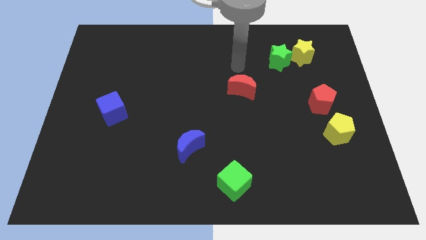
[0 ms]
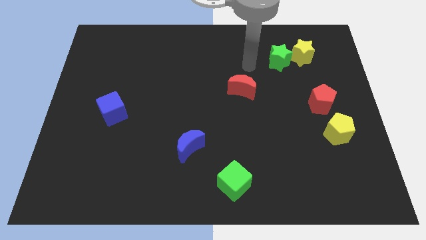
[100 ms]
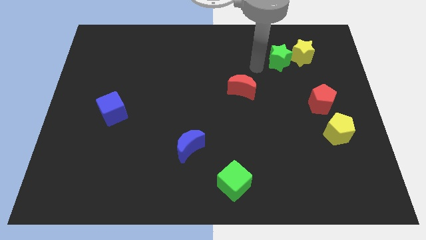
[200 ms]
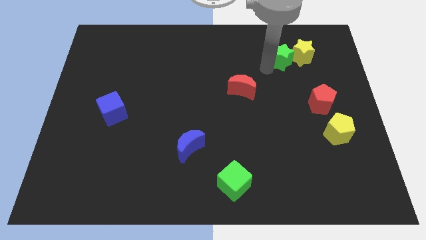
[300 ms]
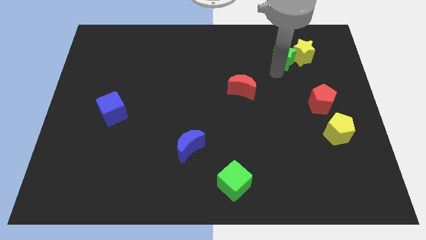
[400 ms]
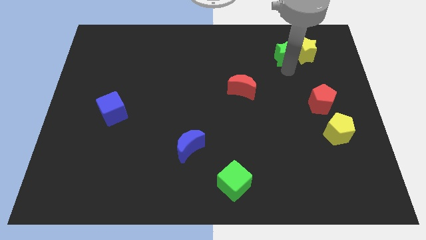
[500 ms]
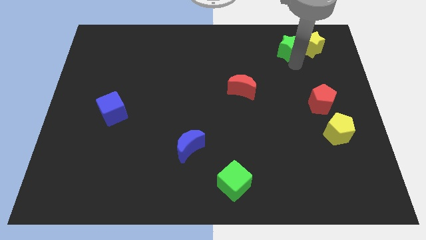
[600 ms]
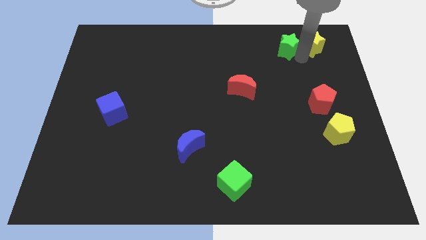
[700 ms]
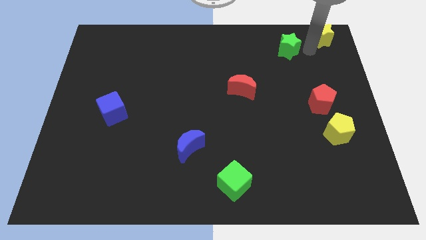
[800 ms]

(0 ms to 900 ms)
pull the green star apart from the yellow star

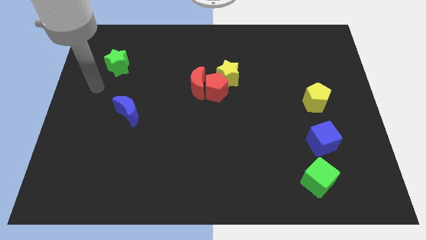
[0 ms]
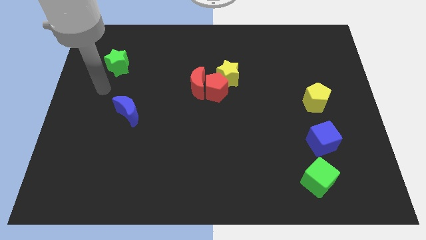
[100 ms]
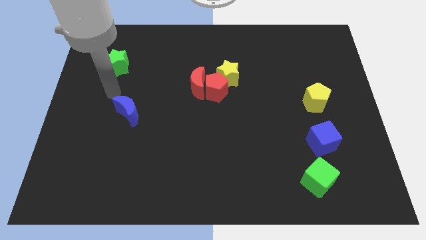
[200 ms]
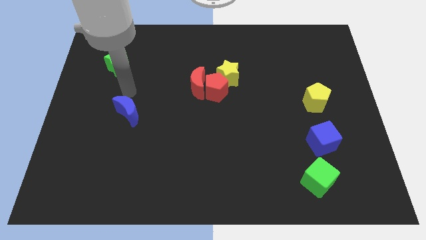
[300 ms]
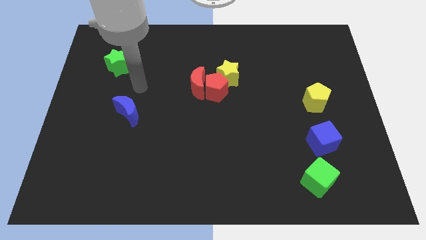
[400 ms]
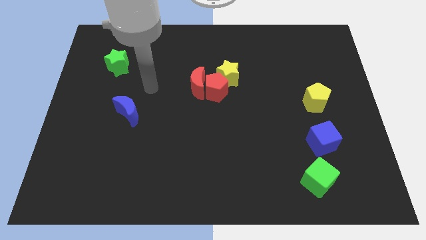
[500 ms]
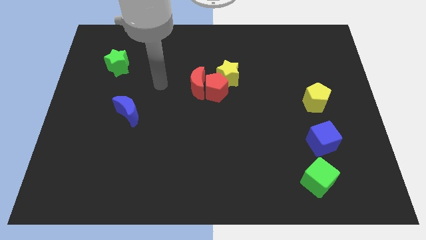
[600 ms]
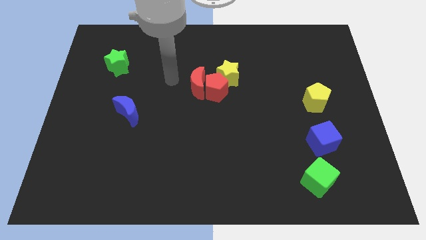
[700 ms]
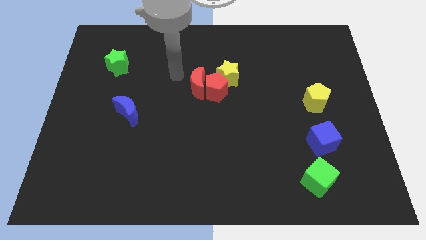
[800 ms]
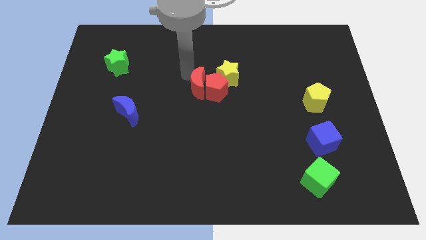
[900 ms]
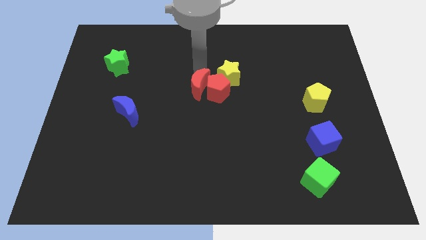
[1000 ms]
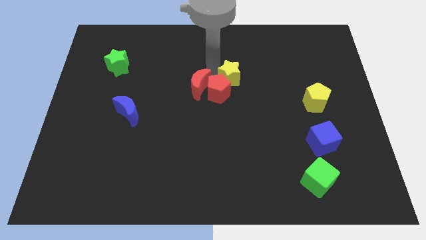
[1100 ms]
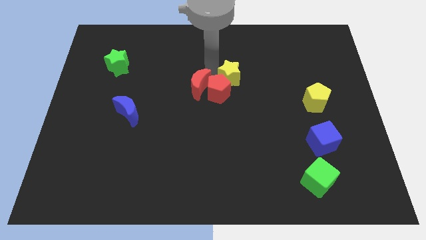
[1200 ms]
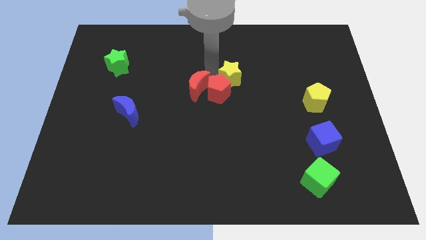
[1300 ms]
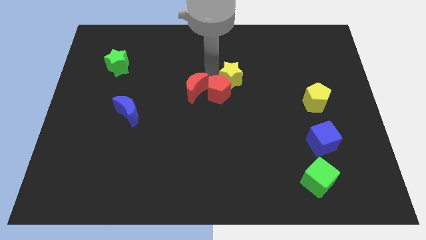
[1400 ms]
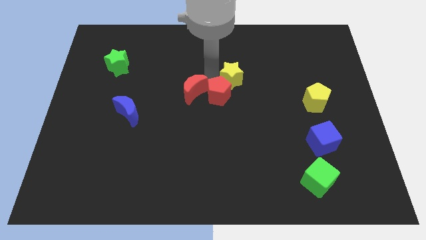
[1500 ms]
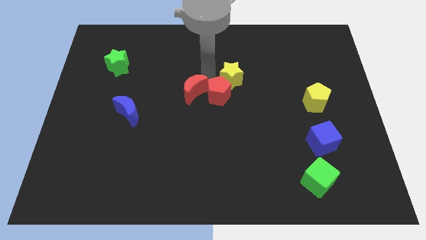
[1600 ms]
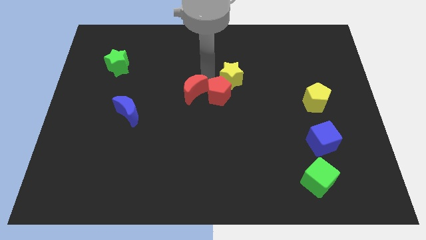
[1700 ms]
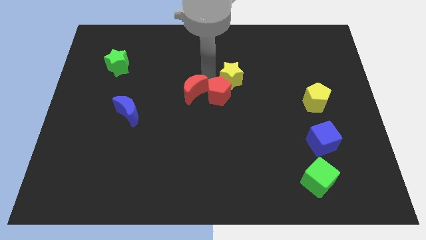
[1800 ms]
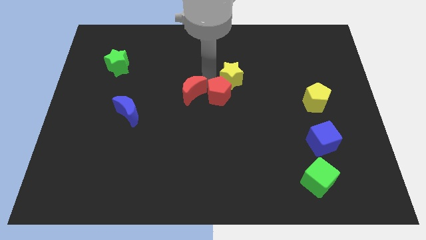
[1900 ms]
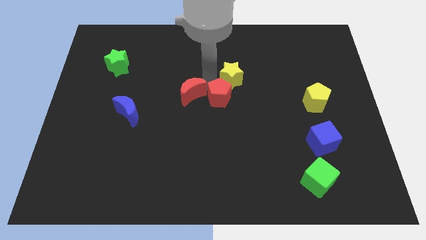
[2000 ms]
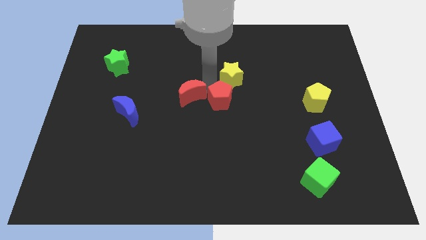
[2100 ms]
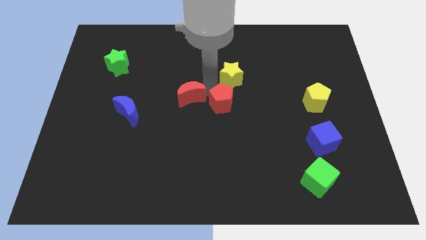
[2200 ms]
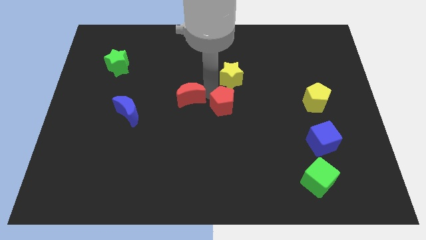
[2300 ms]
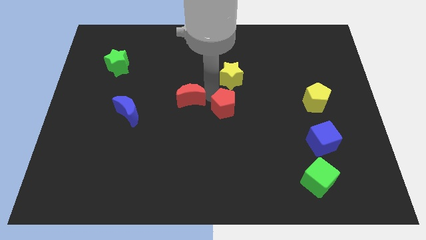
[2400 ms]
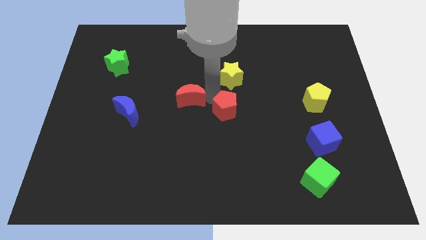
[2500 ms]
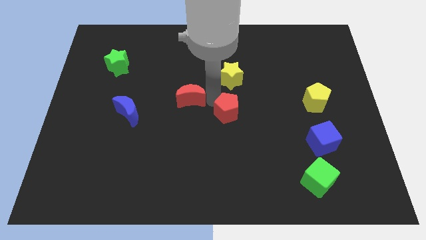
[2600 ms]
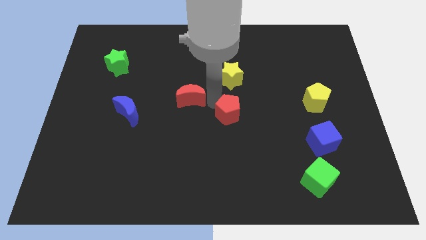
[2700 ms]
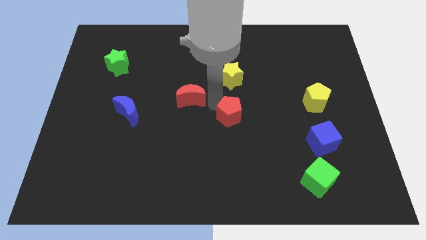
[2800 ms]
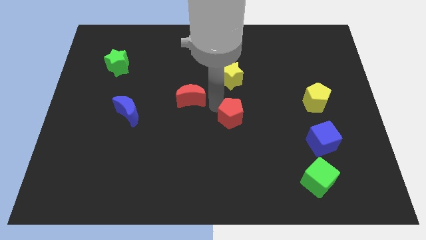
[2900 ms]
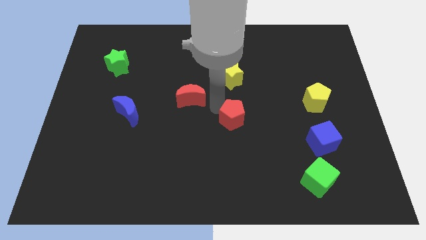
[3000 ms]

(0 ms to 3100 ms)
pull the red pentagon apart from the red moon and yellow star

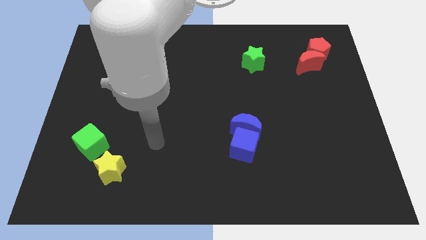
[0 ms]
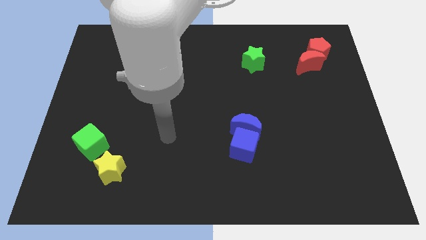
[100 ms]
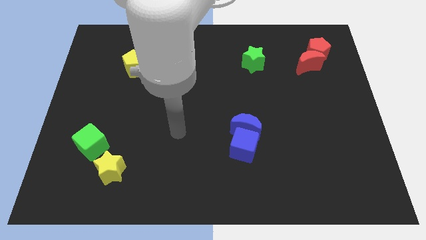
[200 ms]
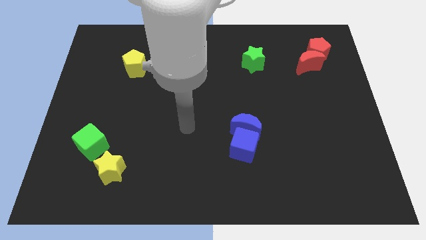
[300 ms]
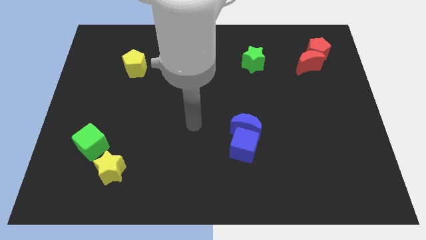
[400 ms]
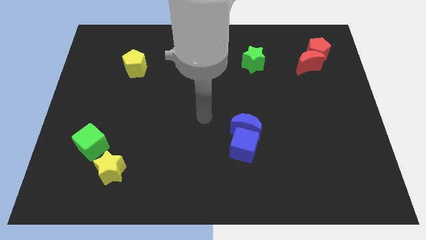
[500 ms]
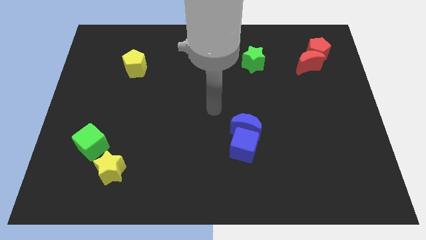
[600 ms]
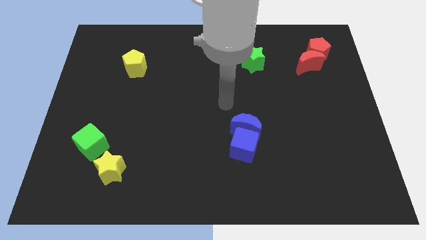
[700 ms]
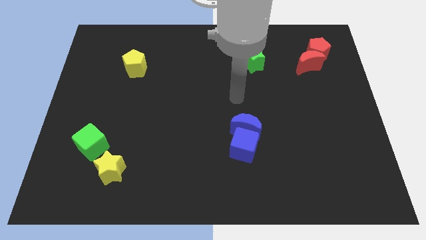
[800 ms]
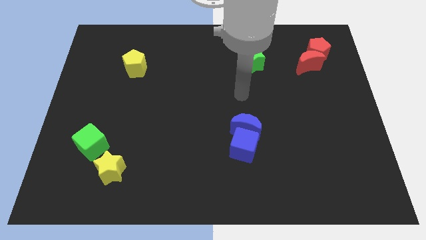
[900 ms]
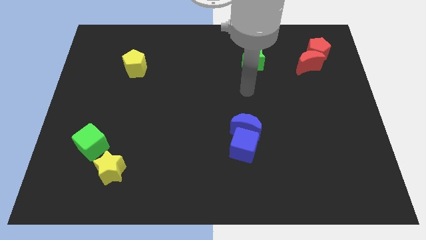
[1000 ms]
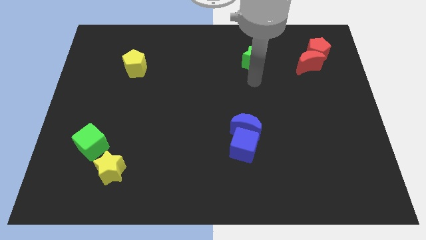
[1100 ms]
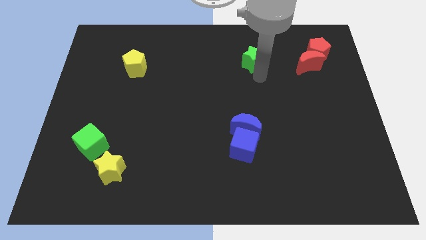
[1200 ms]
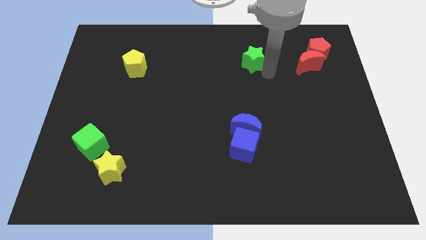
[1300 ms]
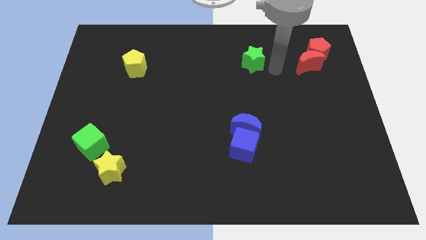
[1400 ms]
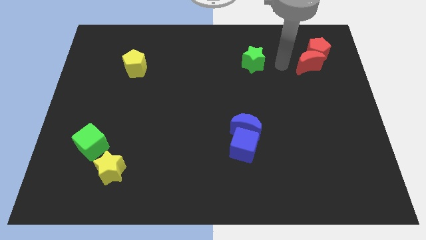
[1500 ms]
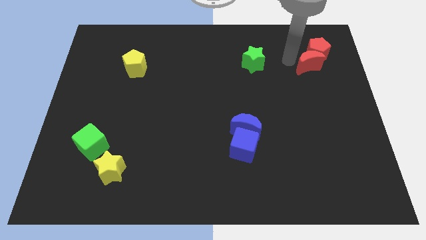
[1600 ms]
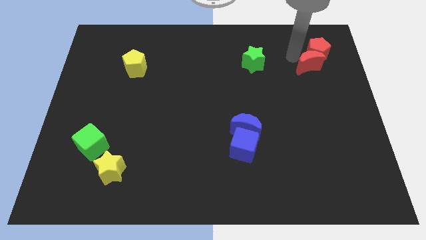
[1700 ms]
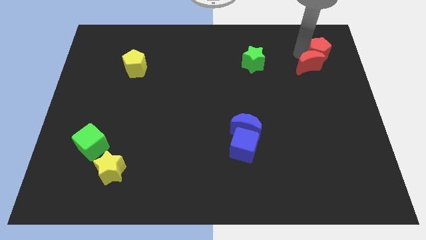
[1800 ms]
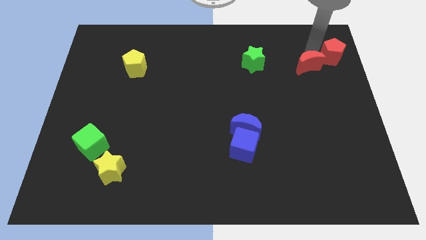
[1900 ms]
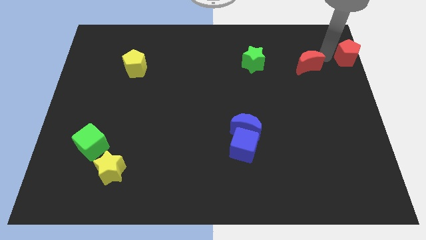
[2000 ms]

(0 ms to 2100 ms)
separate the red moon from the red pentagon

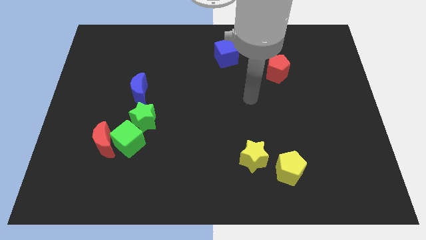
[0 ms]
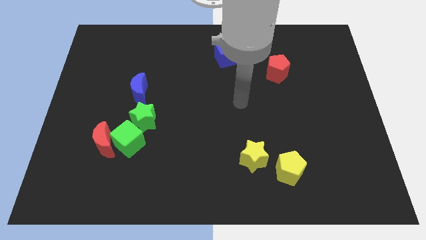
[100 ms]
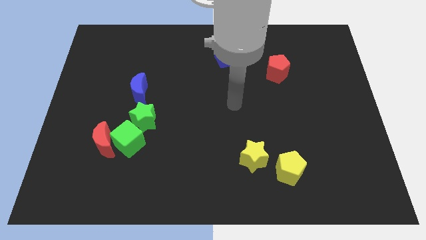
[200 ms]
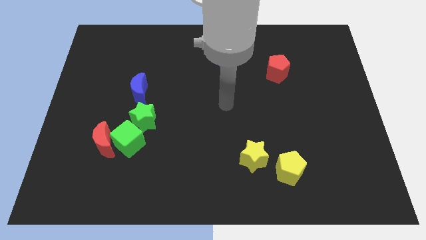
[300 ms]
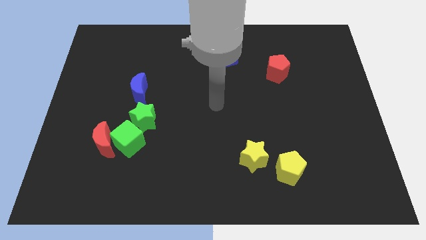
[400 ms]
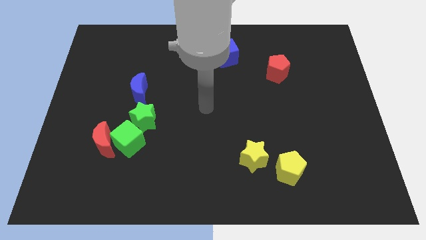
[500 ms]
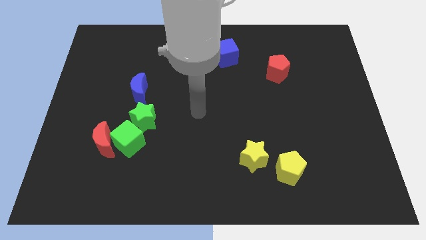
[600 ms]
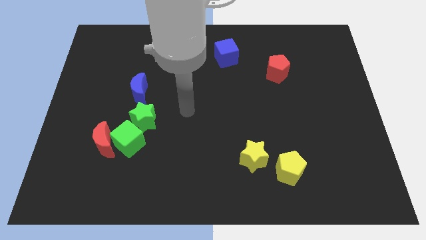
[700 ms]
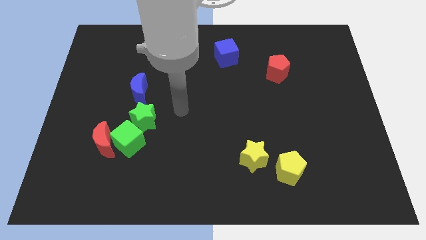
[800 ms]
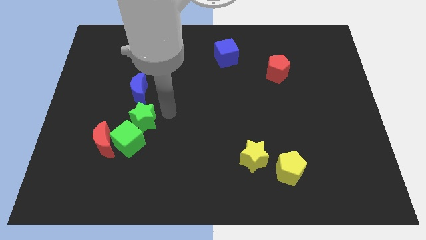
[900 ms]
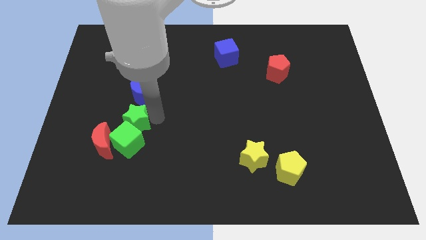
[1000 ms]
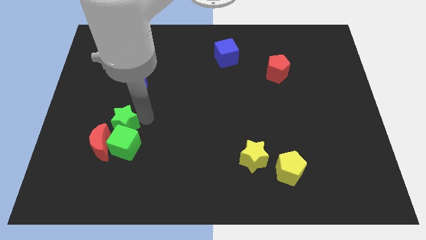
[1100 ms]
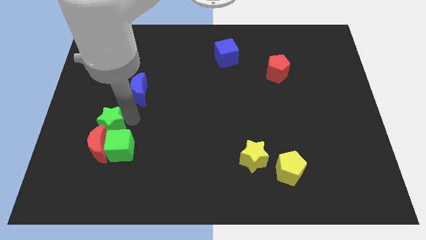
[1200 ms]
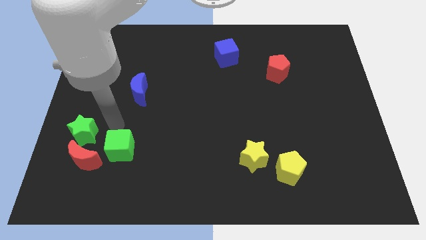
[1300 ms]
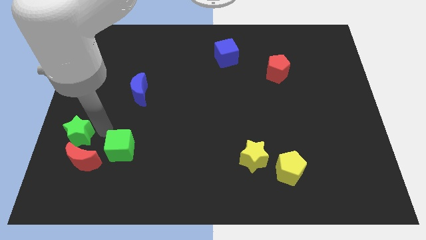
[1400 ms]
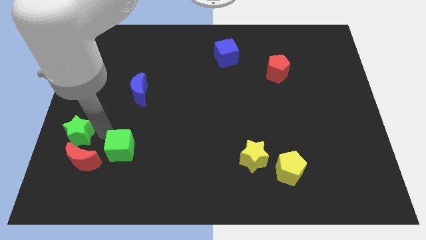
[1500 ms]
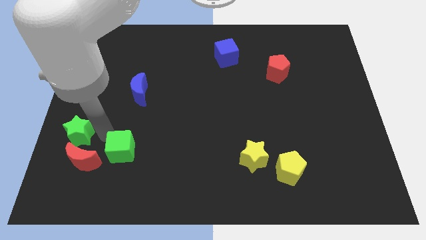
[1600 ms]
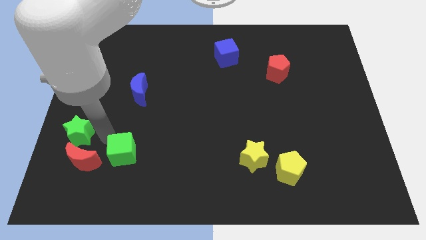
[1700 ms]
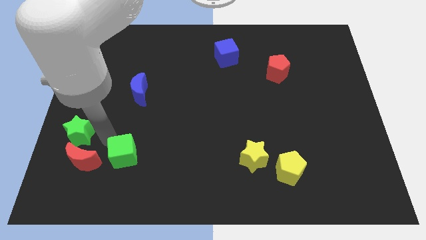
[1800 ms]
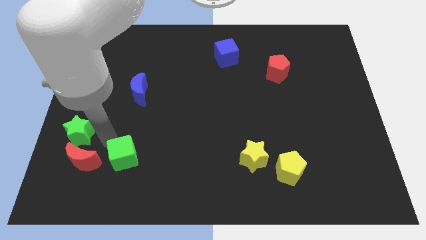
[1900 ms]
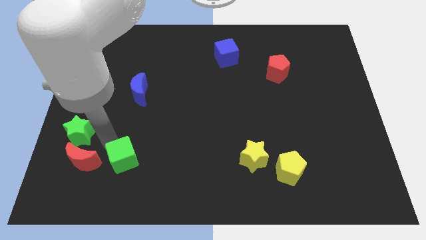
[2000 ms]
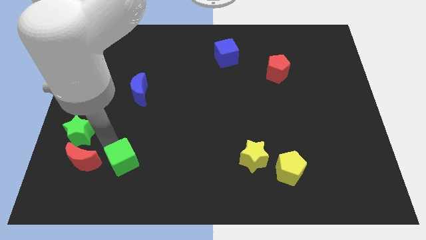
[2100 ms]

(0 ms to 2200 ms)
move the green cube away from the red moon and green star

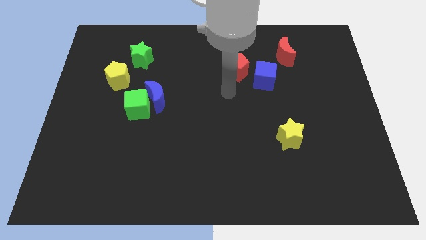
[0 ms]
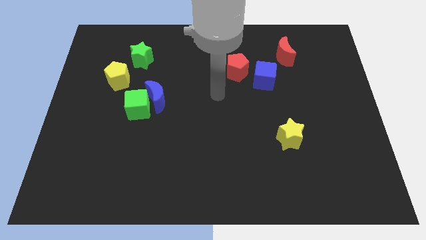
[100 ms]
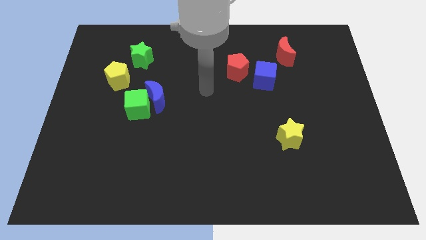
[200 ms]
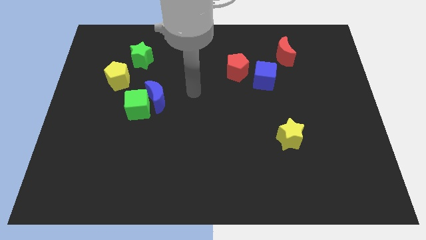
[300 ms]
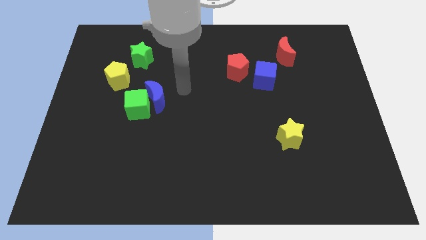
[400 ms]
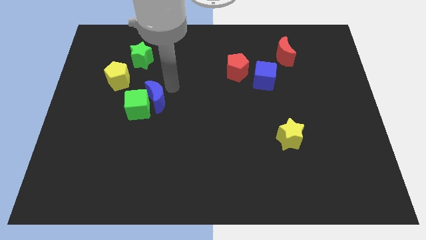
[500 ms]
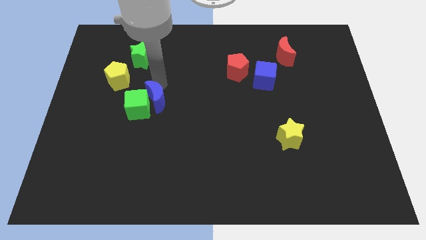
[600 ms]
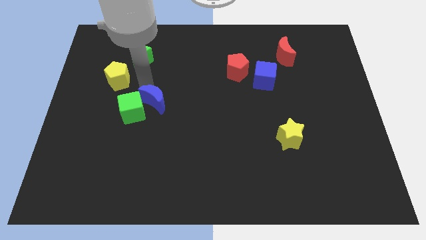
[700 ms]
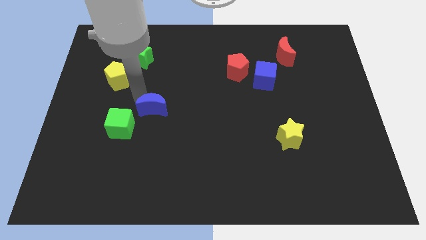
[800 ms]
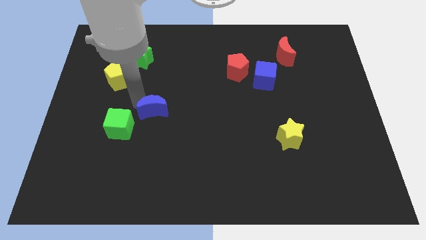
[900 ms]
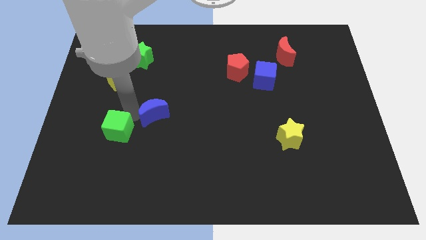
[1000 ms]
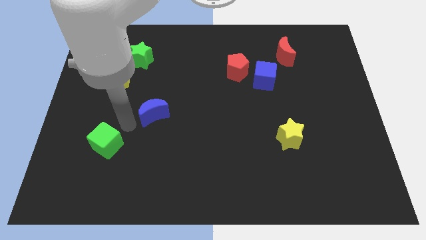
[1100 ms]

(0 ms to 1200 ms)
pull the blue moon apart from the green cube

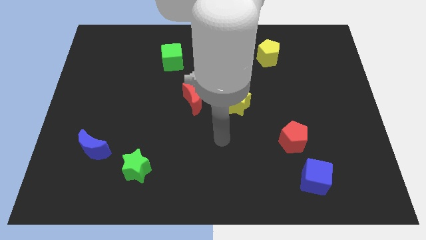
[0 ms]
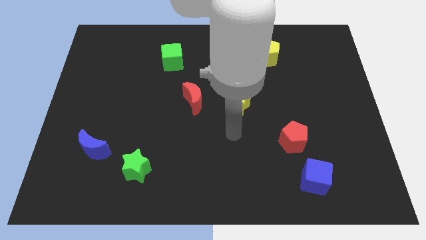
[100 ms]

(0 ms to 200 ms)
separate the red pentagon from the blue cube
